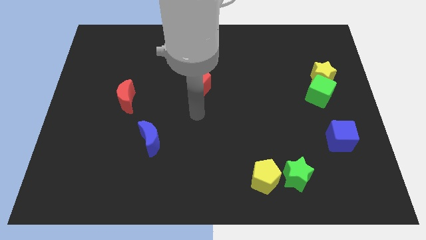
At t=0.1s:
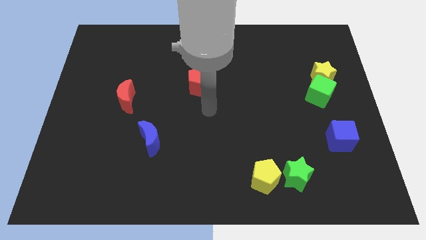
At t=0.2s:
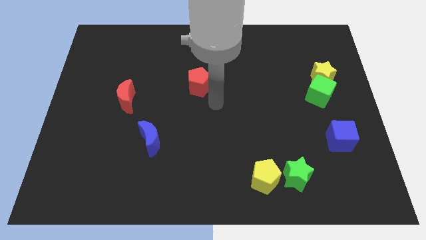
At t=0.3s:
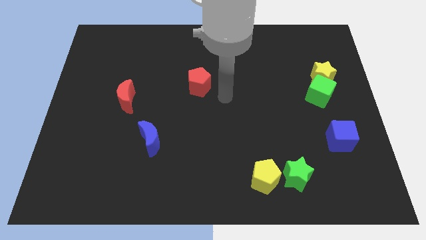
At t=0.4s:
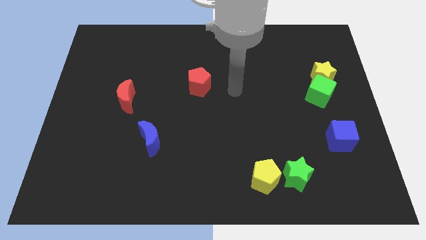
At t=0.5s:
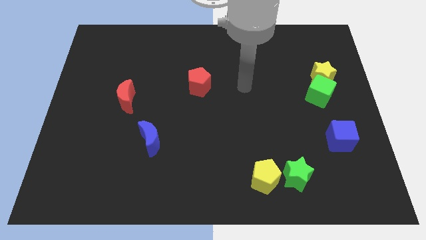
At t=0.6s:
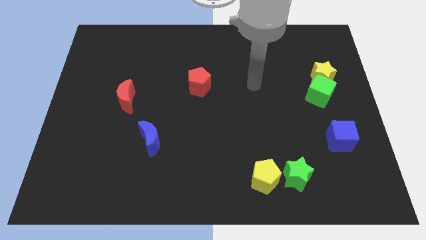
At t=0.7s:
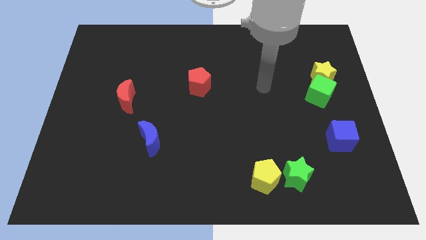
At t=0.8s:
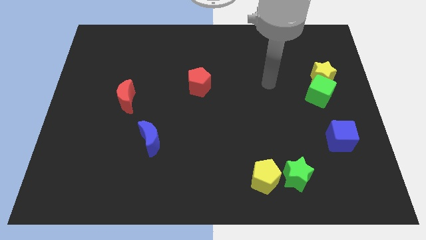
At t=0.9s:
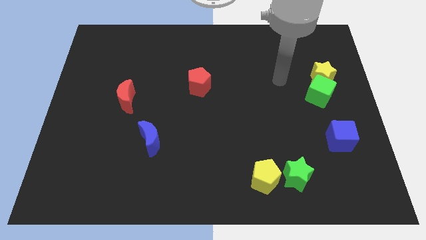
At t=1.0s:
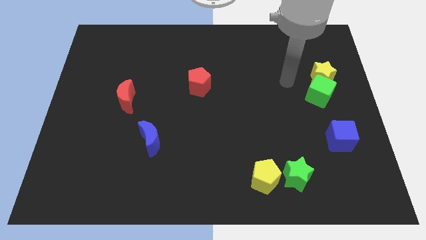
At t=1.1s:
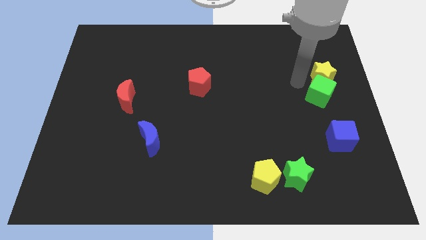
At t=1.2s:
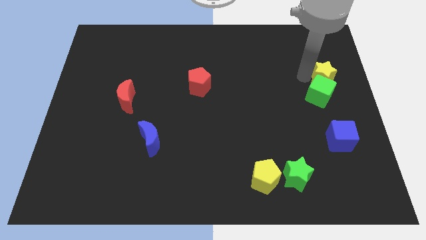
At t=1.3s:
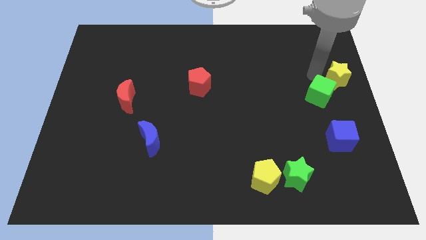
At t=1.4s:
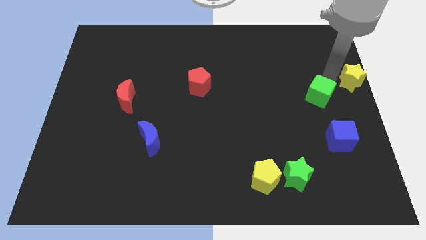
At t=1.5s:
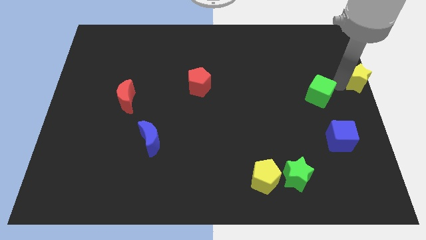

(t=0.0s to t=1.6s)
move the green cube away from the yellow star

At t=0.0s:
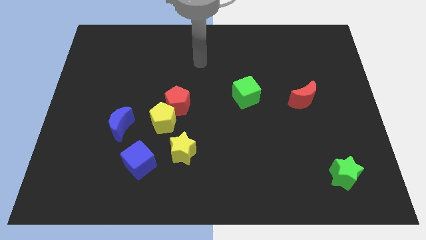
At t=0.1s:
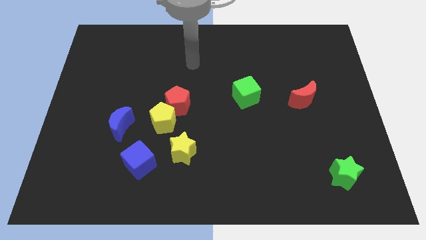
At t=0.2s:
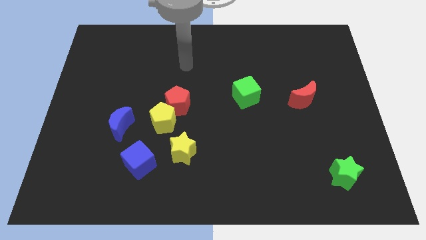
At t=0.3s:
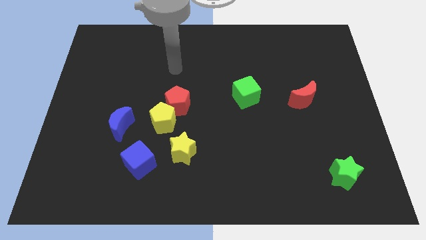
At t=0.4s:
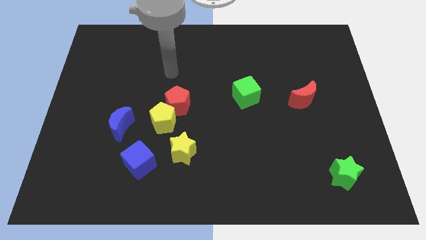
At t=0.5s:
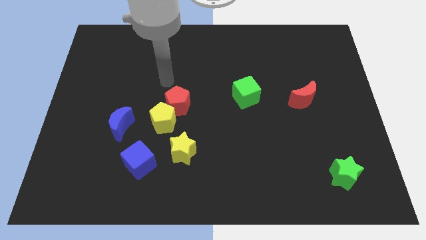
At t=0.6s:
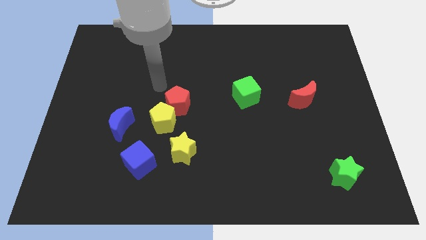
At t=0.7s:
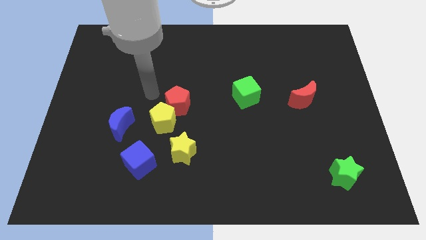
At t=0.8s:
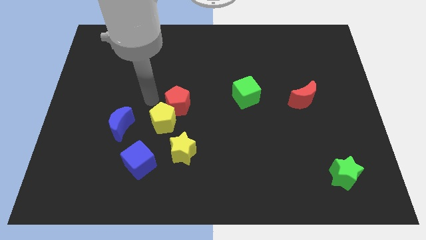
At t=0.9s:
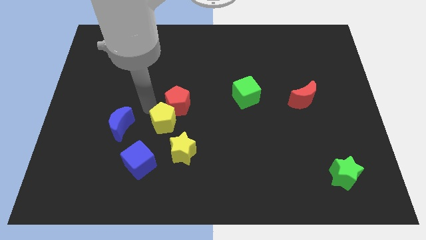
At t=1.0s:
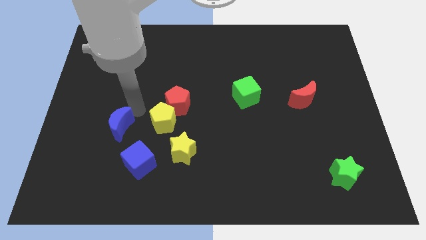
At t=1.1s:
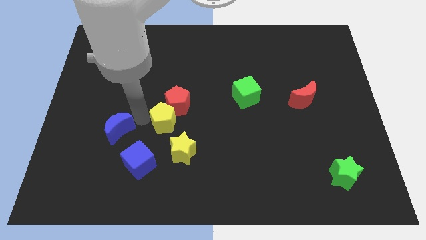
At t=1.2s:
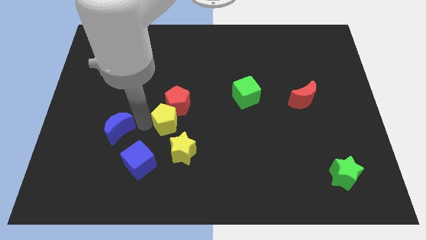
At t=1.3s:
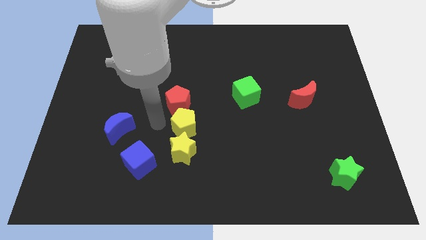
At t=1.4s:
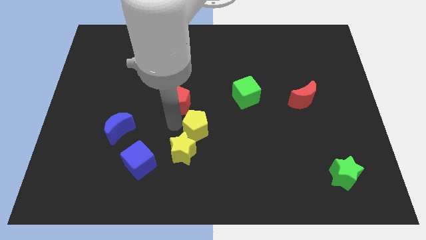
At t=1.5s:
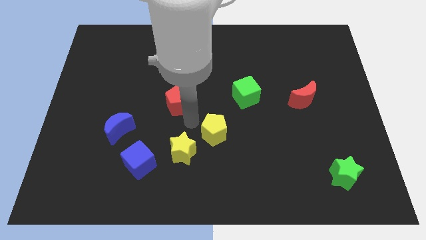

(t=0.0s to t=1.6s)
pull the red pentagon apart from the yellow pentagon

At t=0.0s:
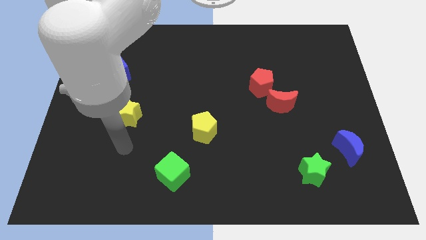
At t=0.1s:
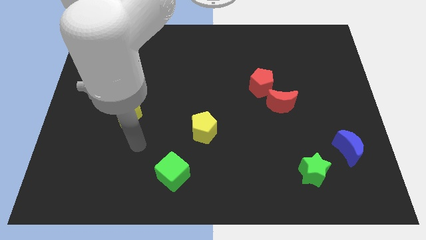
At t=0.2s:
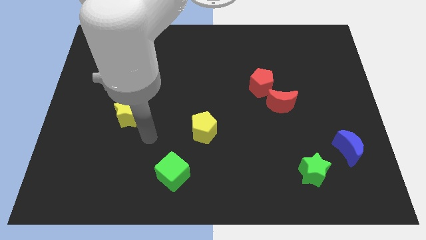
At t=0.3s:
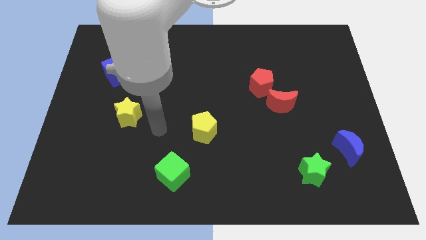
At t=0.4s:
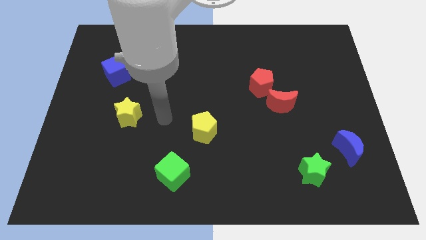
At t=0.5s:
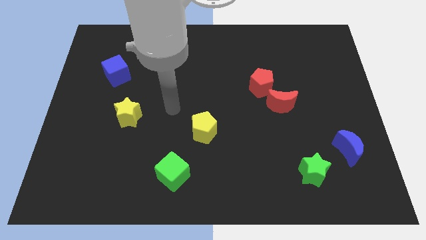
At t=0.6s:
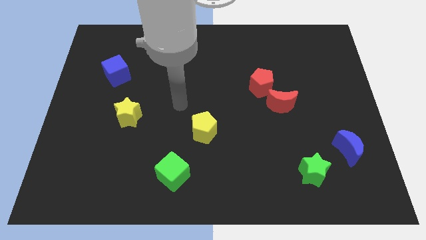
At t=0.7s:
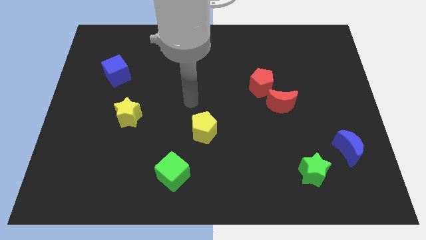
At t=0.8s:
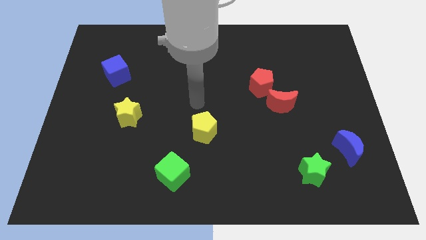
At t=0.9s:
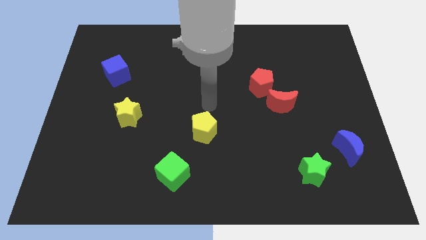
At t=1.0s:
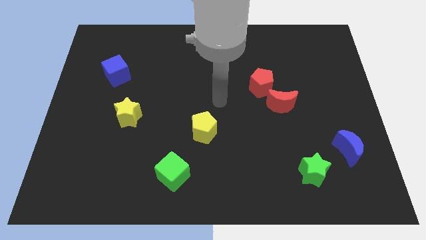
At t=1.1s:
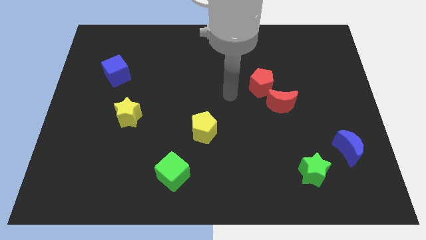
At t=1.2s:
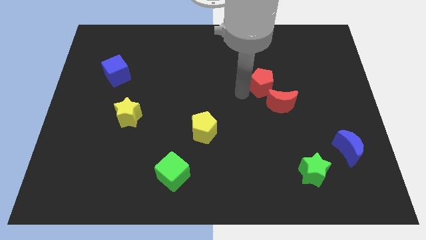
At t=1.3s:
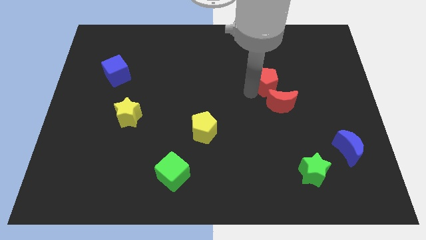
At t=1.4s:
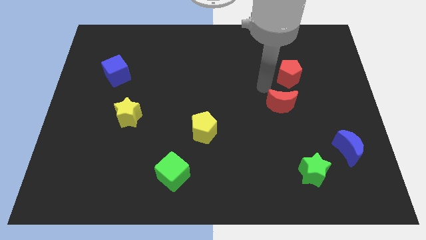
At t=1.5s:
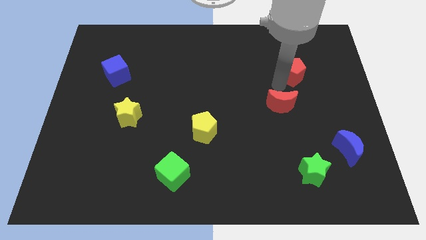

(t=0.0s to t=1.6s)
move the red moon away from the red pentagon

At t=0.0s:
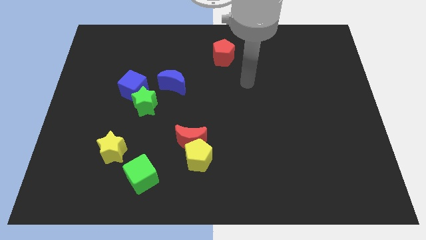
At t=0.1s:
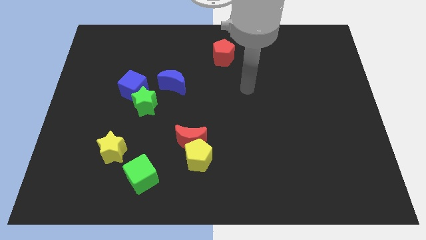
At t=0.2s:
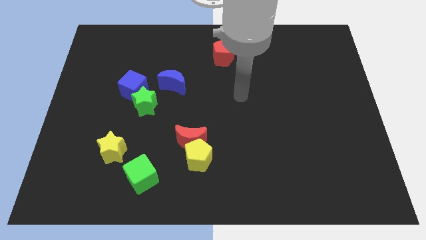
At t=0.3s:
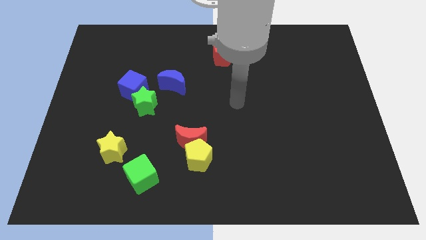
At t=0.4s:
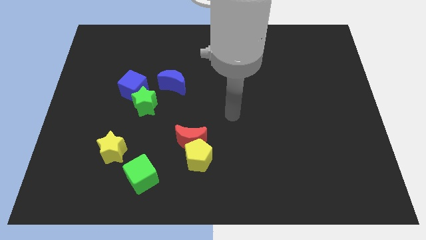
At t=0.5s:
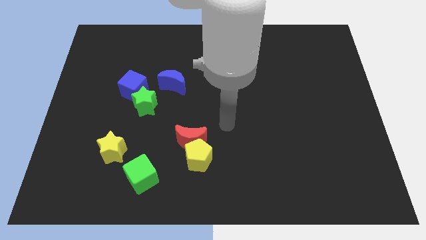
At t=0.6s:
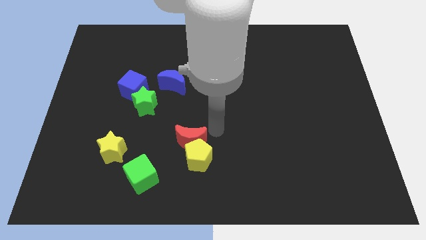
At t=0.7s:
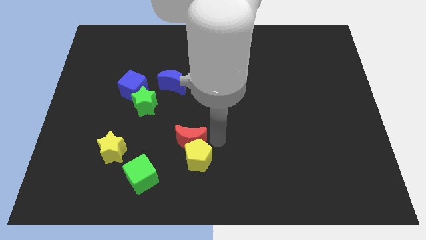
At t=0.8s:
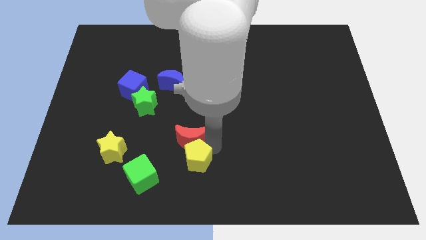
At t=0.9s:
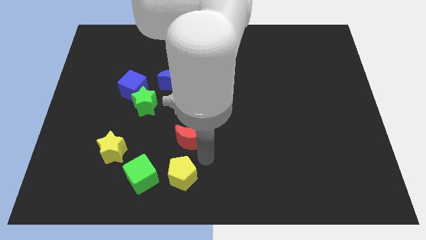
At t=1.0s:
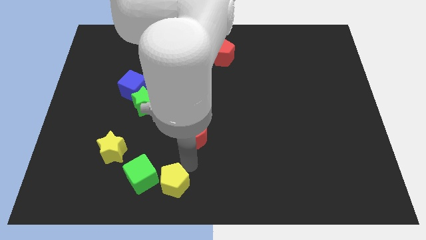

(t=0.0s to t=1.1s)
pull the red moon apart from the yellow pentagon

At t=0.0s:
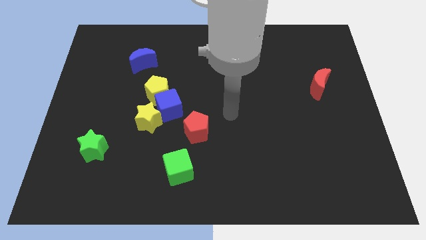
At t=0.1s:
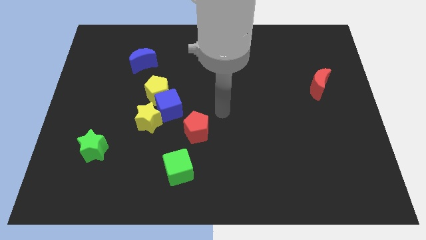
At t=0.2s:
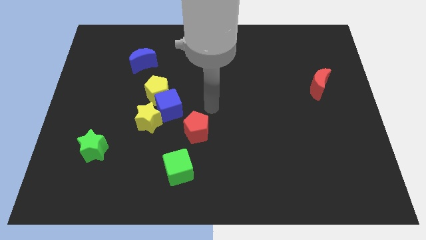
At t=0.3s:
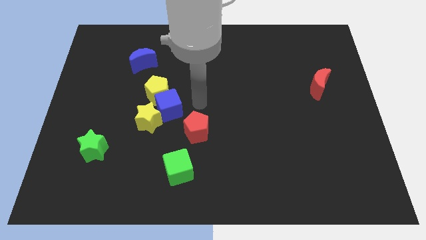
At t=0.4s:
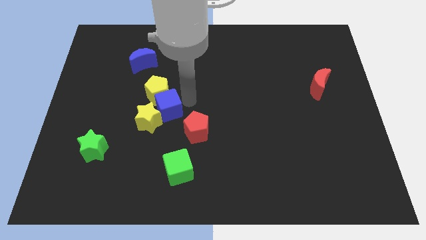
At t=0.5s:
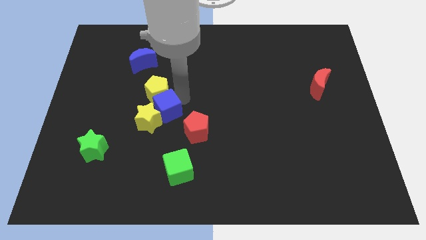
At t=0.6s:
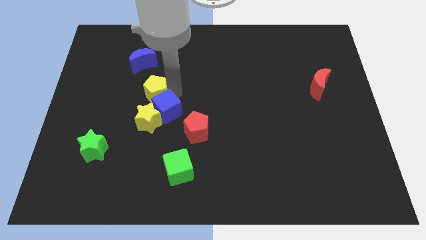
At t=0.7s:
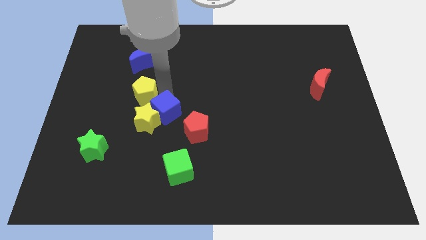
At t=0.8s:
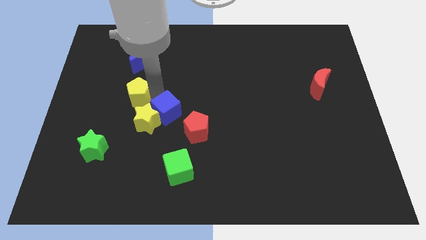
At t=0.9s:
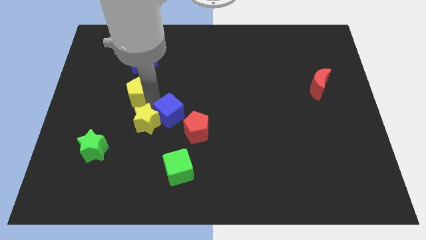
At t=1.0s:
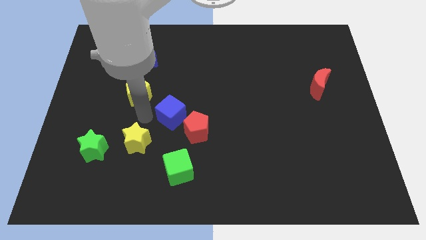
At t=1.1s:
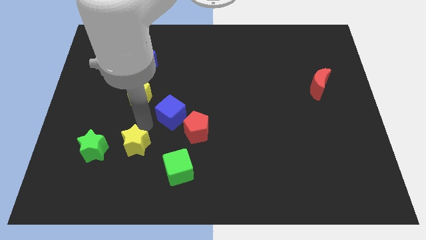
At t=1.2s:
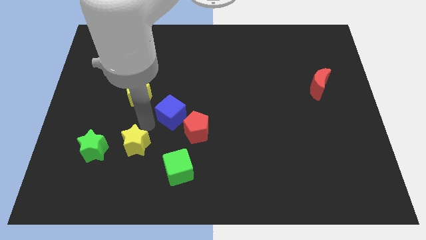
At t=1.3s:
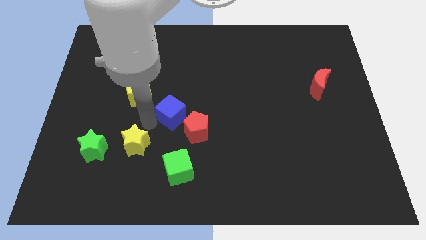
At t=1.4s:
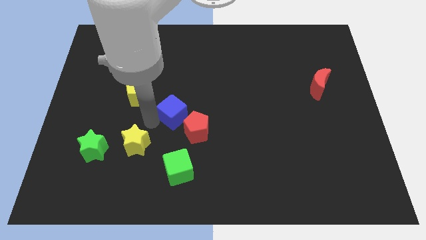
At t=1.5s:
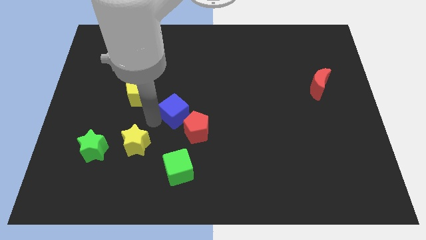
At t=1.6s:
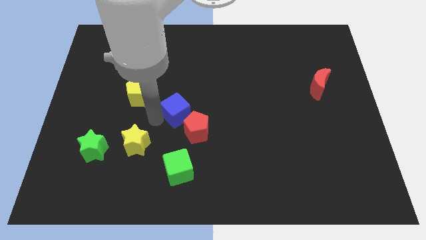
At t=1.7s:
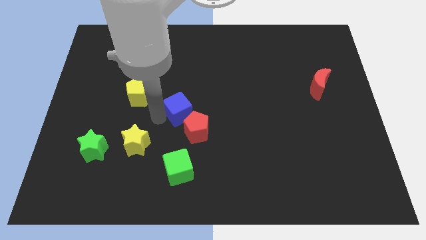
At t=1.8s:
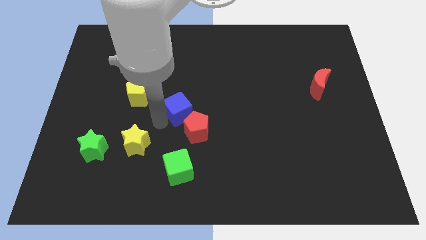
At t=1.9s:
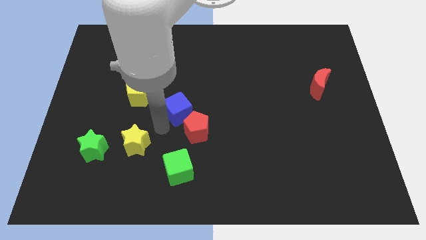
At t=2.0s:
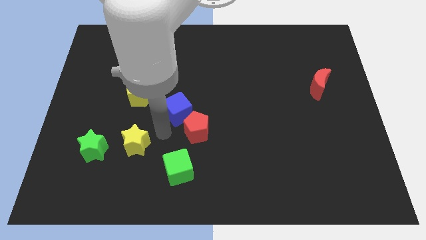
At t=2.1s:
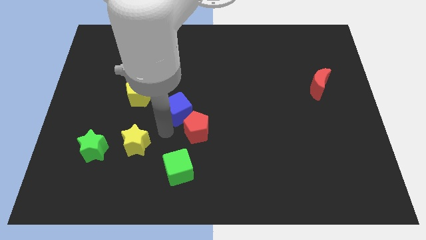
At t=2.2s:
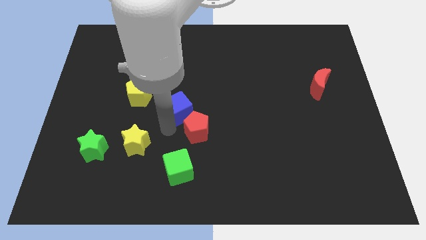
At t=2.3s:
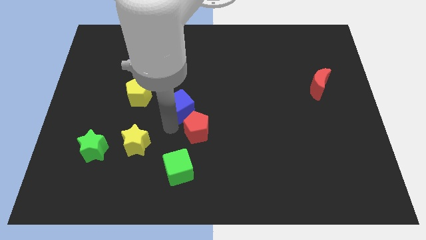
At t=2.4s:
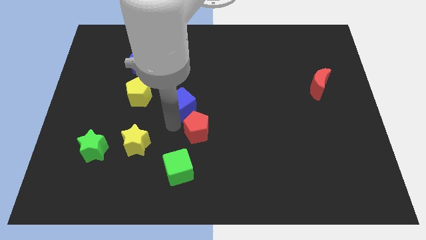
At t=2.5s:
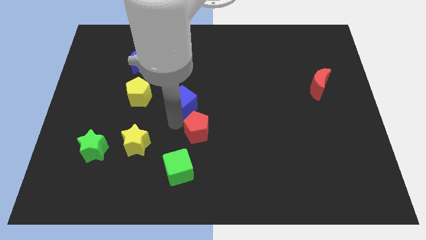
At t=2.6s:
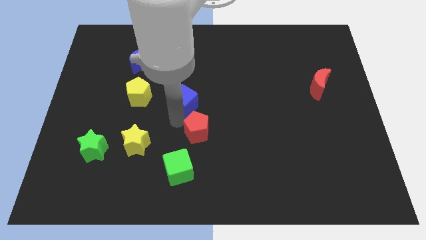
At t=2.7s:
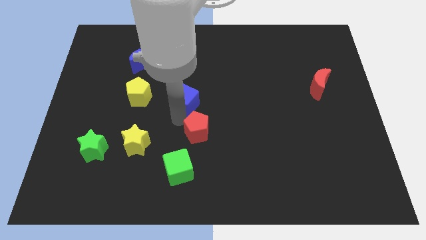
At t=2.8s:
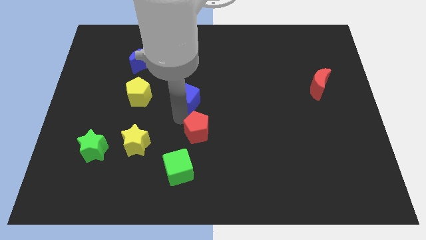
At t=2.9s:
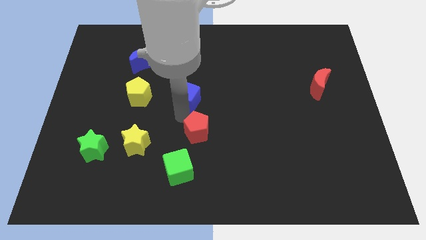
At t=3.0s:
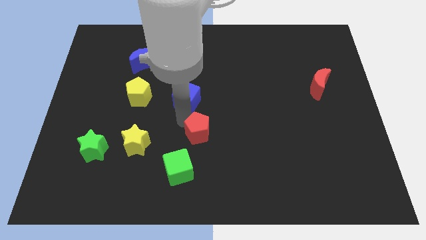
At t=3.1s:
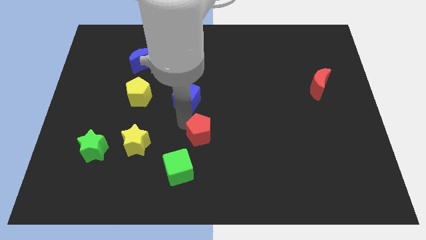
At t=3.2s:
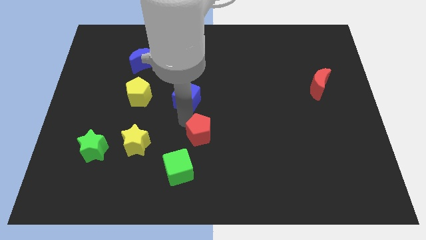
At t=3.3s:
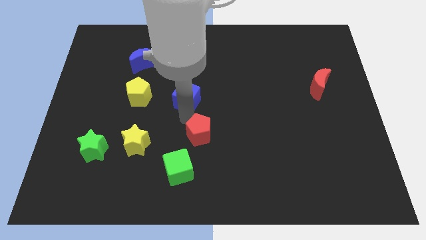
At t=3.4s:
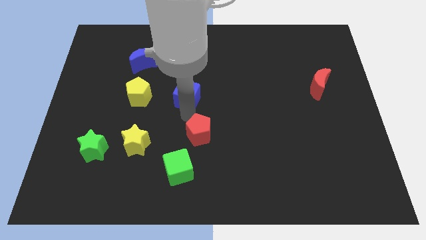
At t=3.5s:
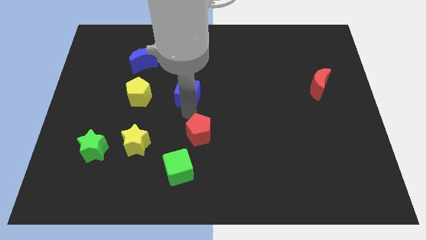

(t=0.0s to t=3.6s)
pull the blue cube apart from the yellow pentagon, yellow star, and red pentagon
